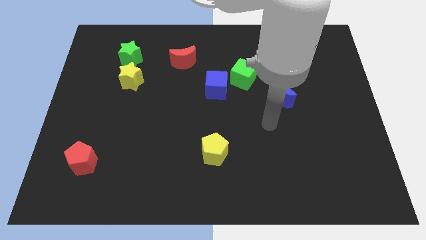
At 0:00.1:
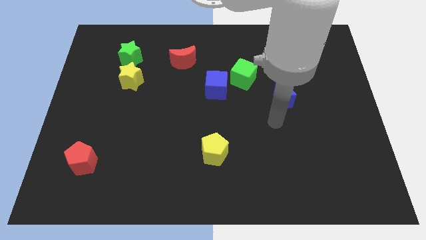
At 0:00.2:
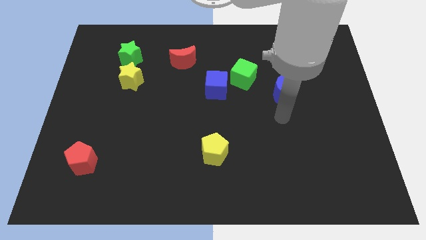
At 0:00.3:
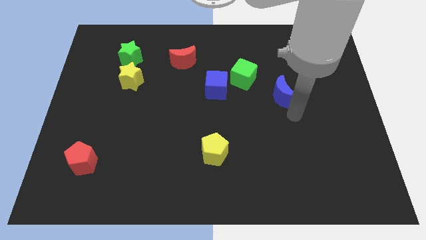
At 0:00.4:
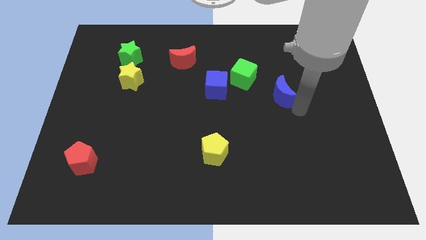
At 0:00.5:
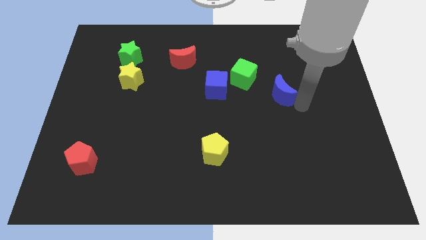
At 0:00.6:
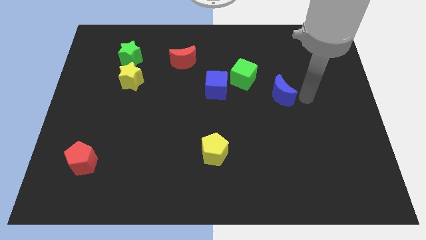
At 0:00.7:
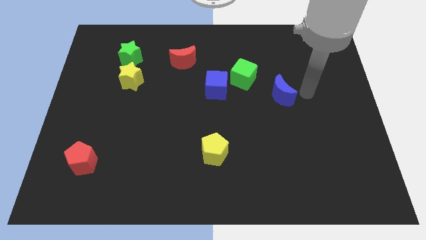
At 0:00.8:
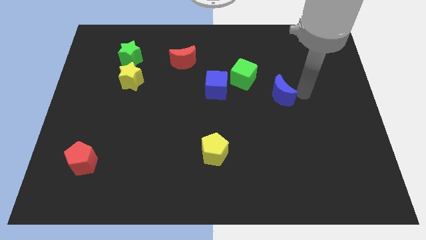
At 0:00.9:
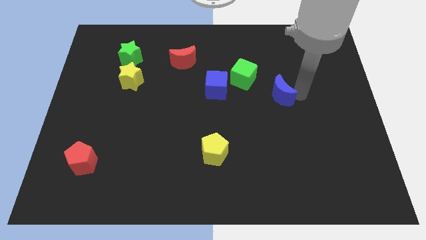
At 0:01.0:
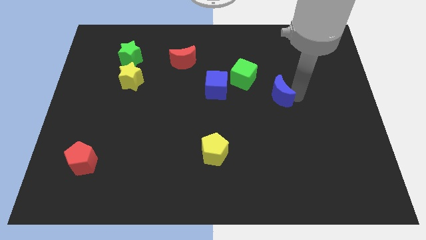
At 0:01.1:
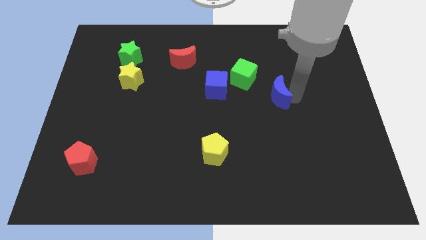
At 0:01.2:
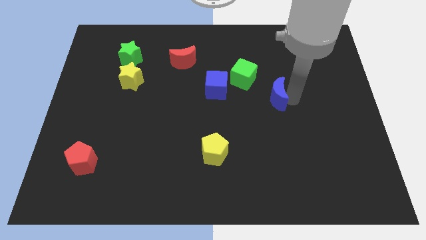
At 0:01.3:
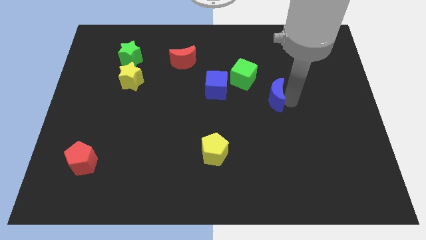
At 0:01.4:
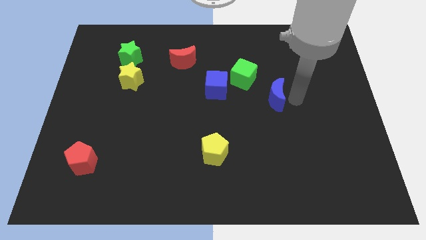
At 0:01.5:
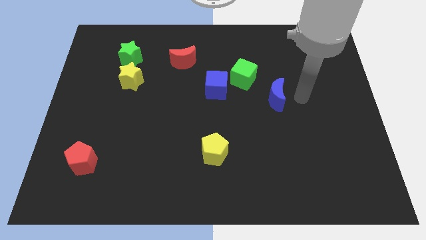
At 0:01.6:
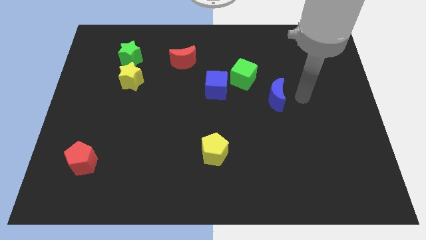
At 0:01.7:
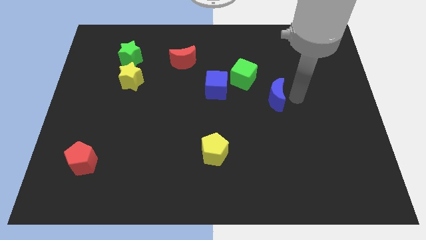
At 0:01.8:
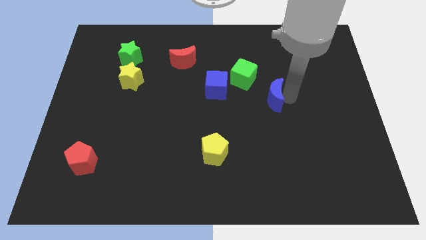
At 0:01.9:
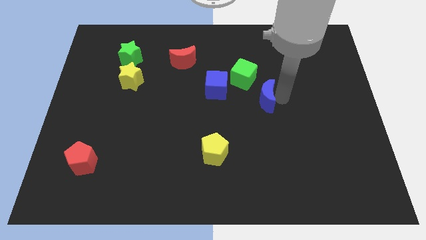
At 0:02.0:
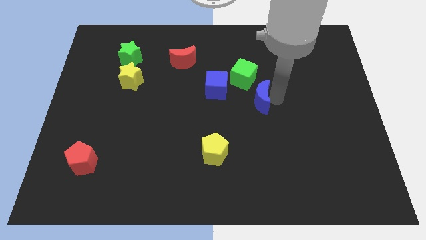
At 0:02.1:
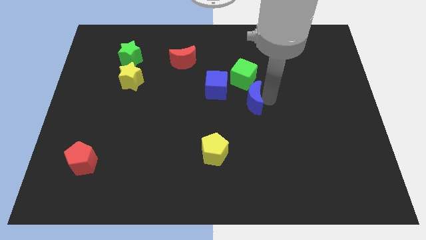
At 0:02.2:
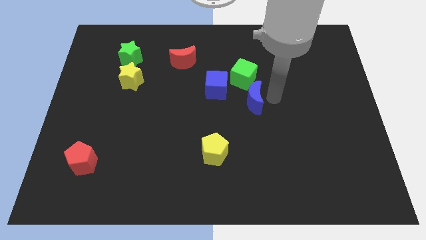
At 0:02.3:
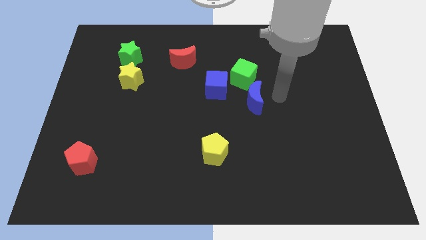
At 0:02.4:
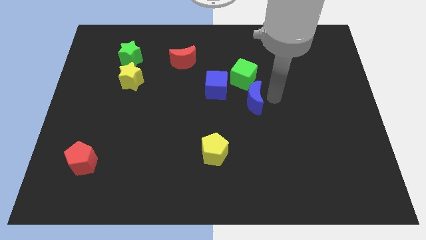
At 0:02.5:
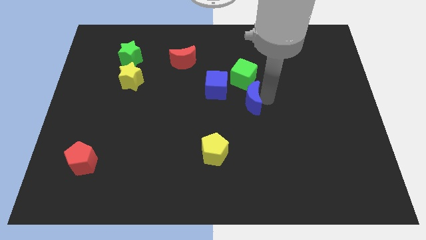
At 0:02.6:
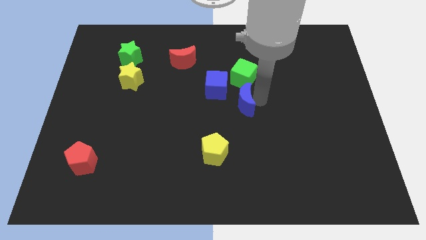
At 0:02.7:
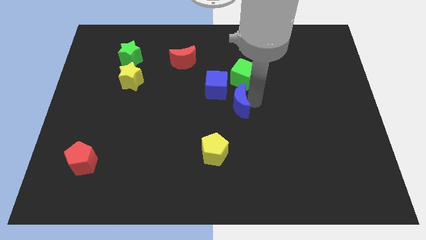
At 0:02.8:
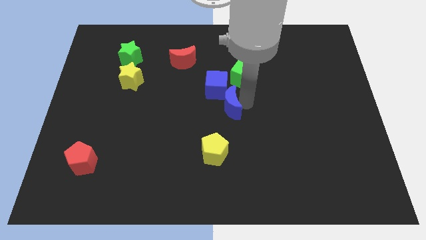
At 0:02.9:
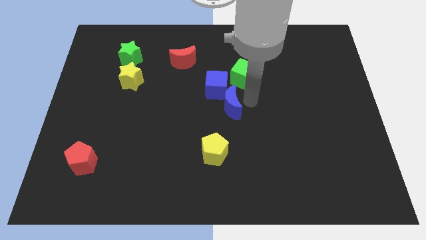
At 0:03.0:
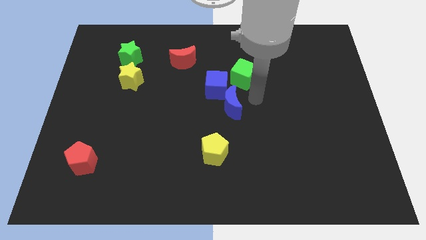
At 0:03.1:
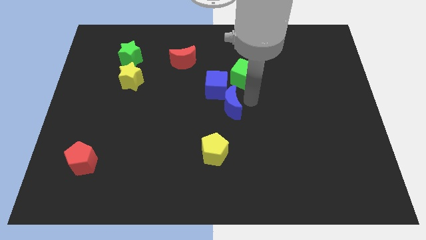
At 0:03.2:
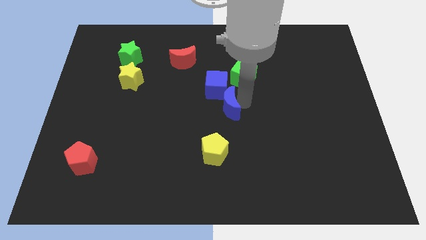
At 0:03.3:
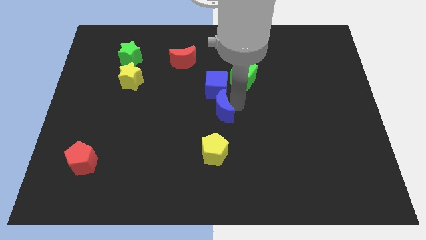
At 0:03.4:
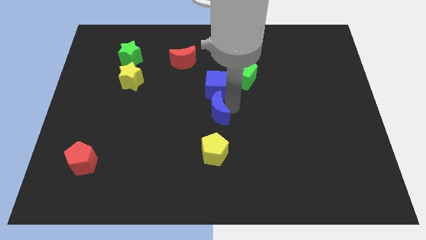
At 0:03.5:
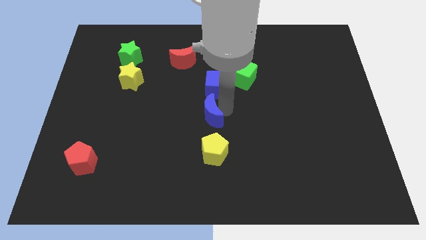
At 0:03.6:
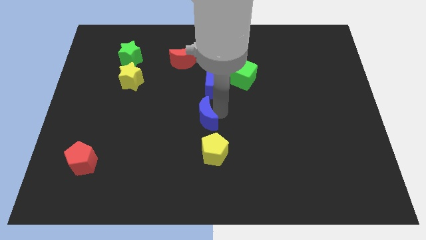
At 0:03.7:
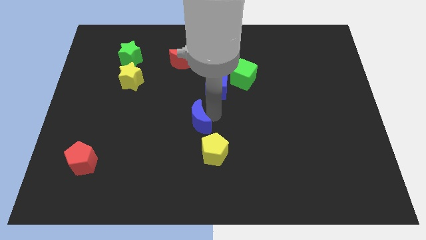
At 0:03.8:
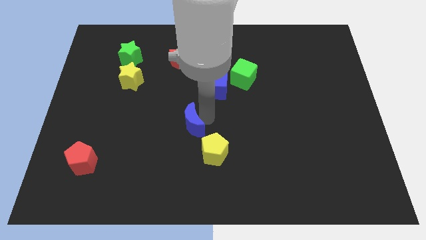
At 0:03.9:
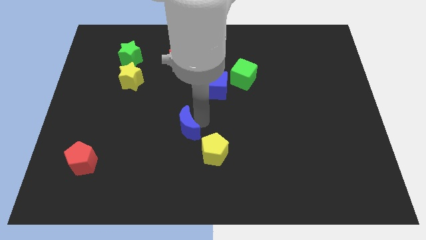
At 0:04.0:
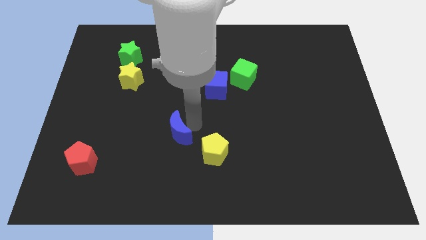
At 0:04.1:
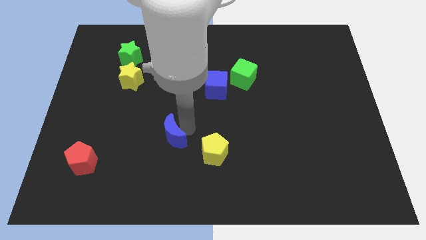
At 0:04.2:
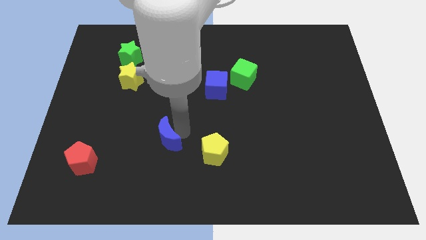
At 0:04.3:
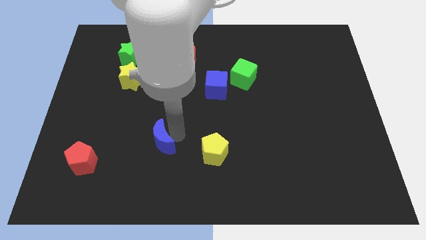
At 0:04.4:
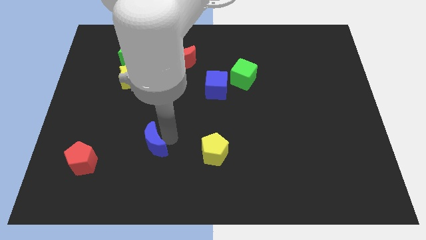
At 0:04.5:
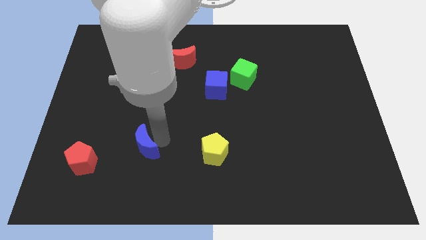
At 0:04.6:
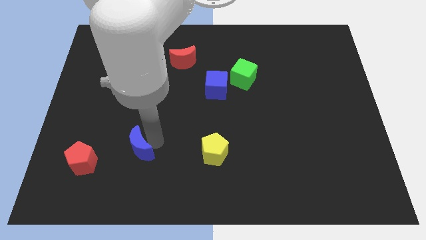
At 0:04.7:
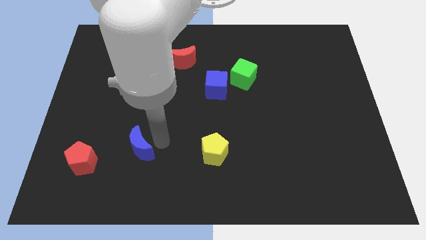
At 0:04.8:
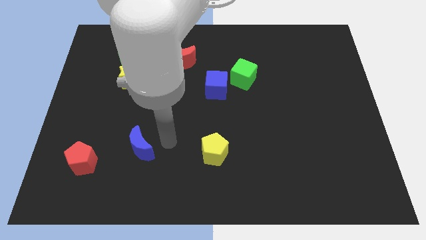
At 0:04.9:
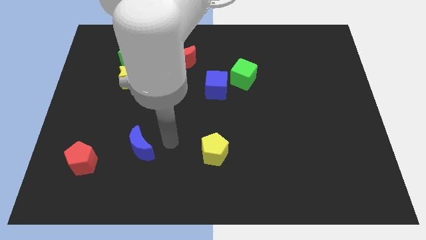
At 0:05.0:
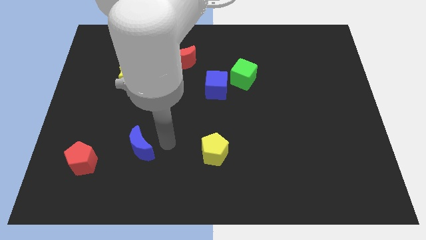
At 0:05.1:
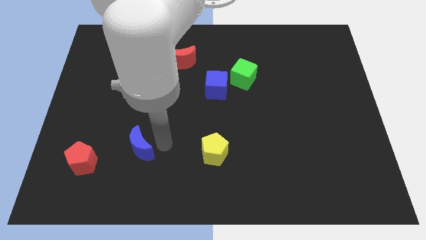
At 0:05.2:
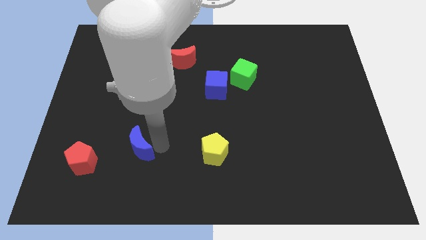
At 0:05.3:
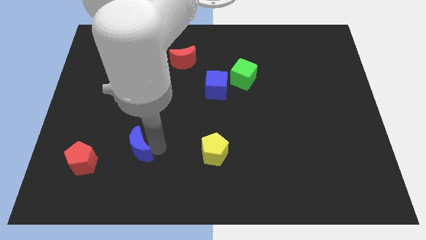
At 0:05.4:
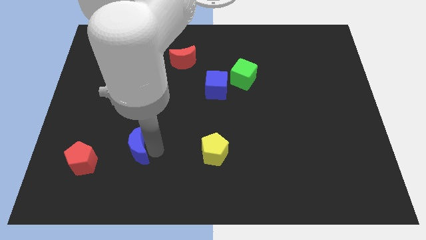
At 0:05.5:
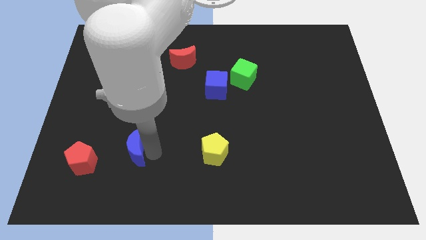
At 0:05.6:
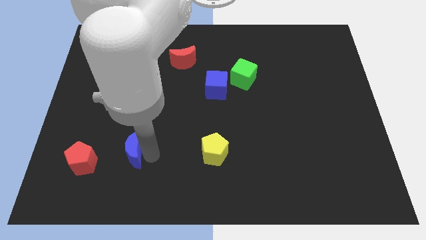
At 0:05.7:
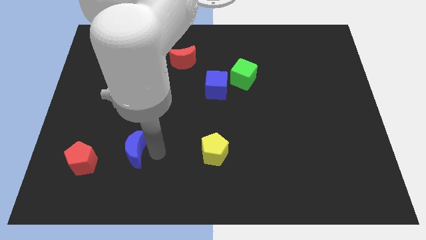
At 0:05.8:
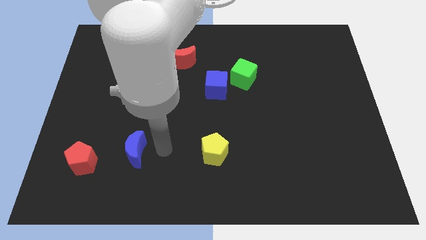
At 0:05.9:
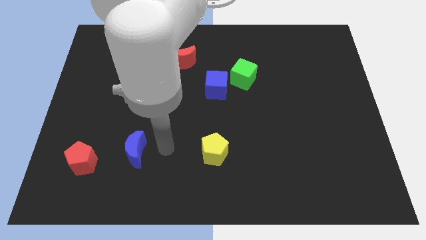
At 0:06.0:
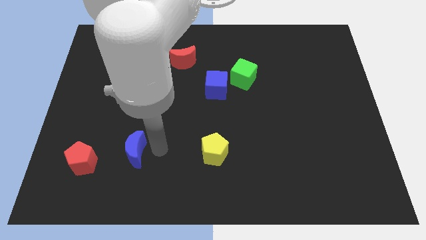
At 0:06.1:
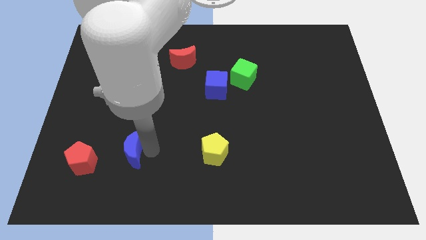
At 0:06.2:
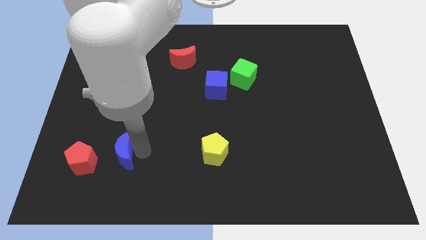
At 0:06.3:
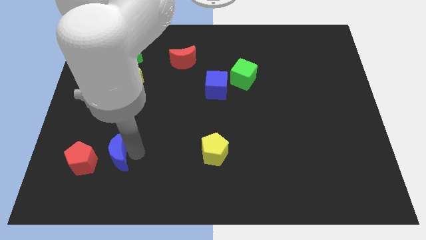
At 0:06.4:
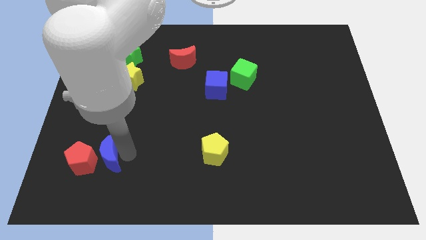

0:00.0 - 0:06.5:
push the blue moon close to the red pentagon

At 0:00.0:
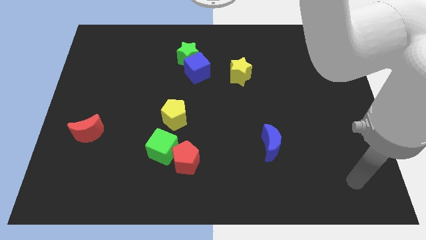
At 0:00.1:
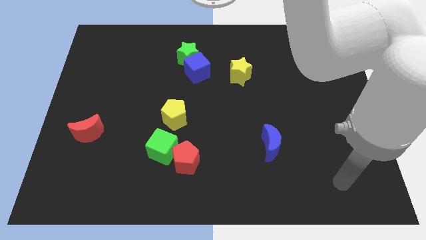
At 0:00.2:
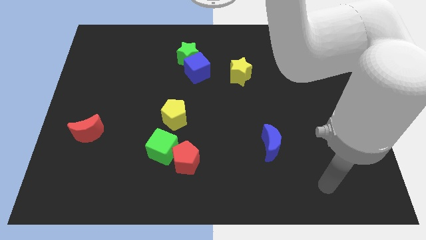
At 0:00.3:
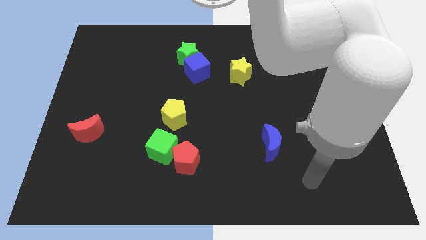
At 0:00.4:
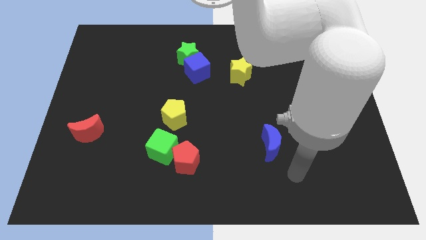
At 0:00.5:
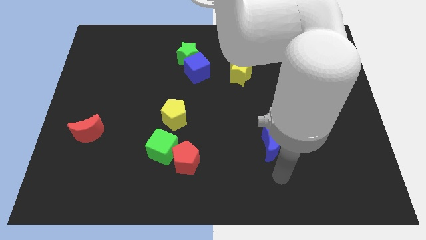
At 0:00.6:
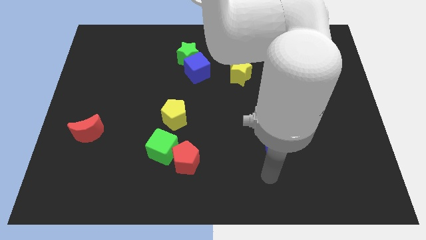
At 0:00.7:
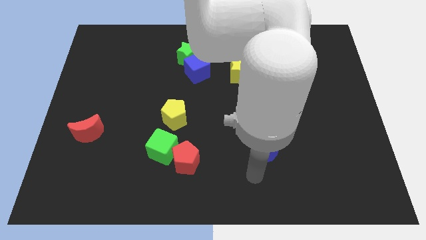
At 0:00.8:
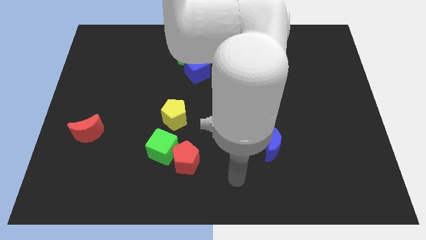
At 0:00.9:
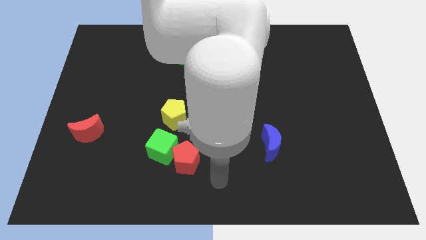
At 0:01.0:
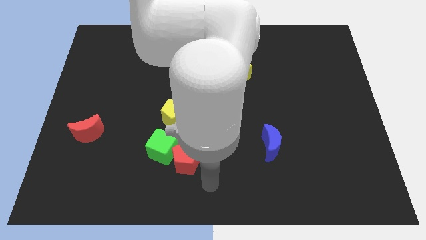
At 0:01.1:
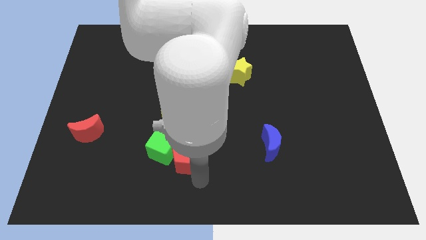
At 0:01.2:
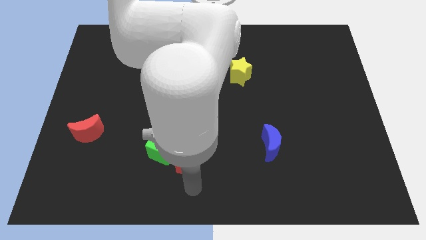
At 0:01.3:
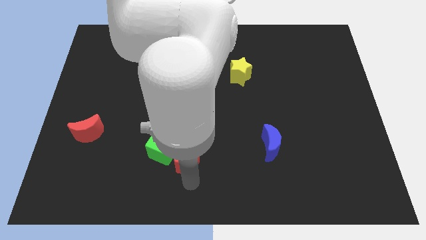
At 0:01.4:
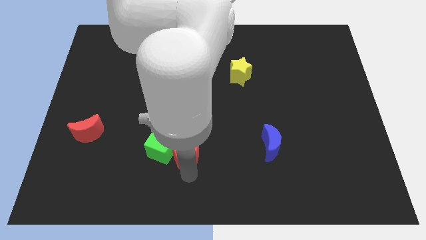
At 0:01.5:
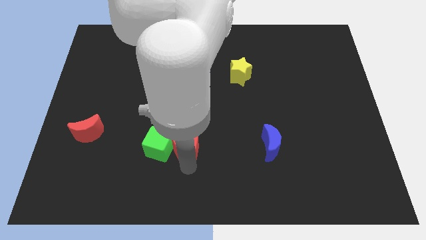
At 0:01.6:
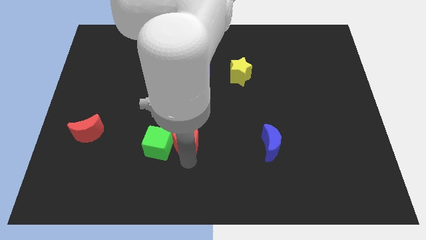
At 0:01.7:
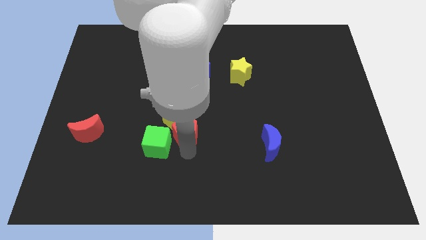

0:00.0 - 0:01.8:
move the red pentagon to the yellow pentagon

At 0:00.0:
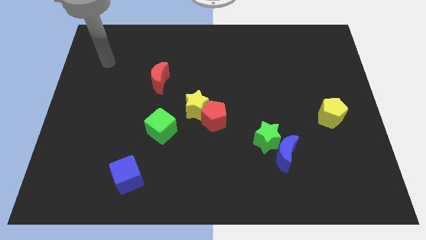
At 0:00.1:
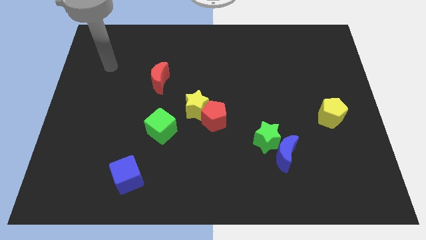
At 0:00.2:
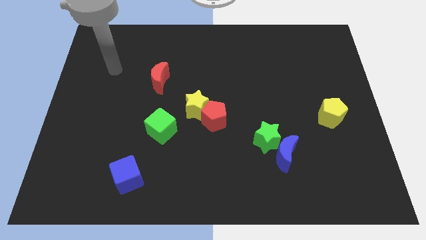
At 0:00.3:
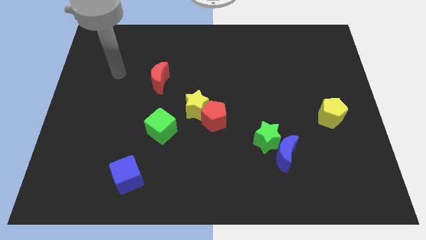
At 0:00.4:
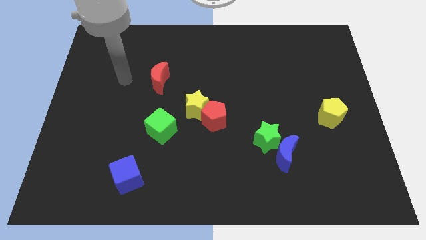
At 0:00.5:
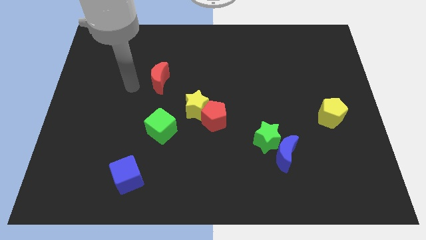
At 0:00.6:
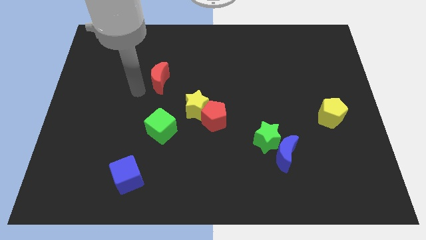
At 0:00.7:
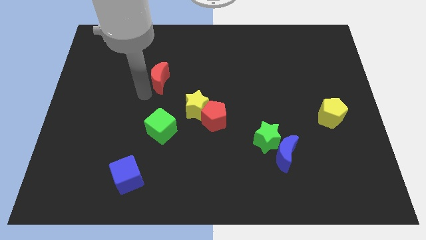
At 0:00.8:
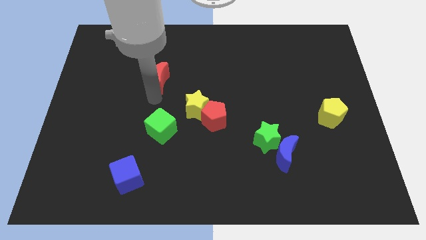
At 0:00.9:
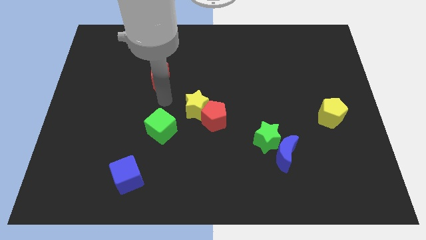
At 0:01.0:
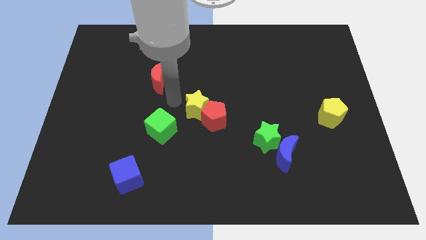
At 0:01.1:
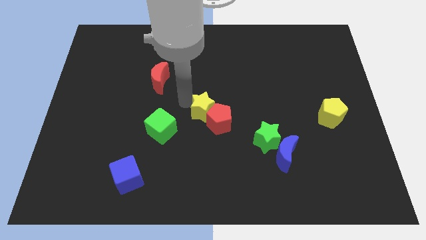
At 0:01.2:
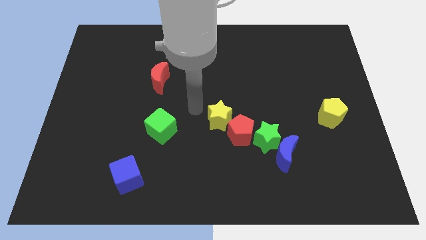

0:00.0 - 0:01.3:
put the red pentagon close to the green star
